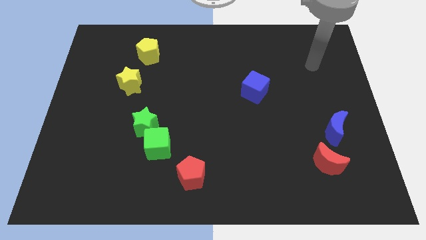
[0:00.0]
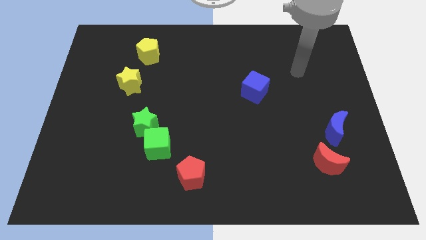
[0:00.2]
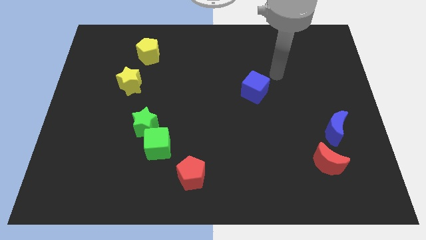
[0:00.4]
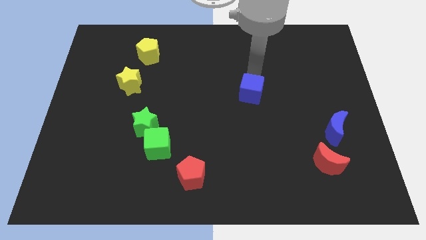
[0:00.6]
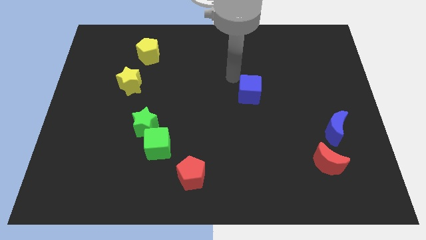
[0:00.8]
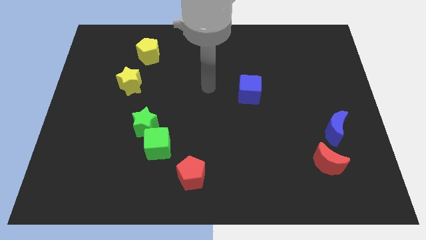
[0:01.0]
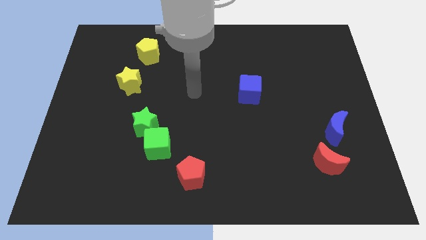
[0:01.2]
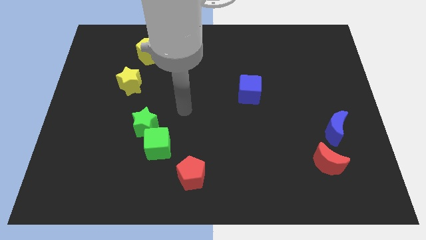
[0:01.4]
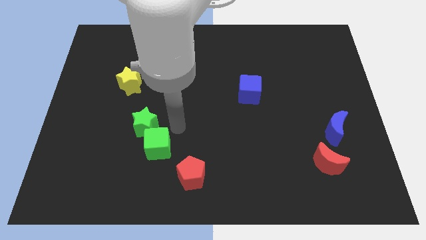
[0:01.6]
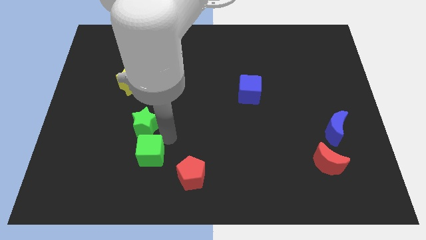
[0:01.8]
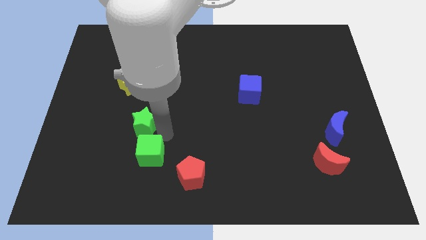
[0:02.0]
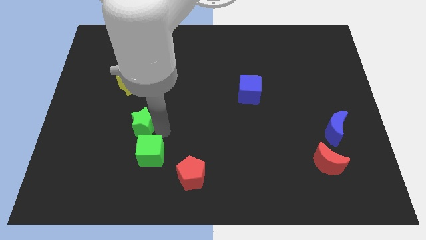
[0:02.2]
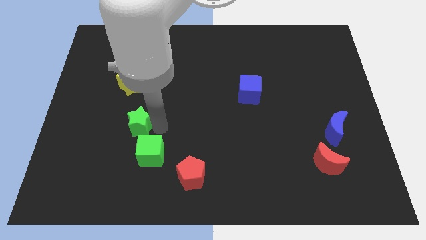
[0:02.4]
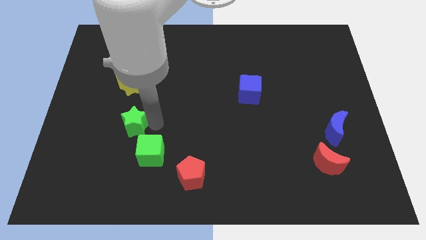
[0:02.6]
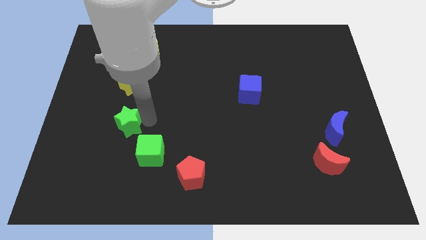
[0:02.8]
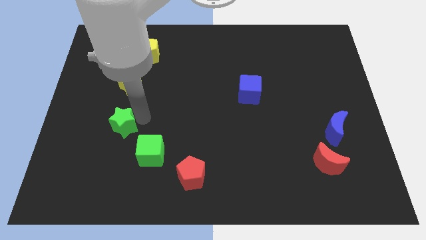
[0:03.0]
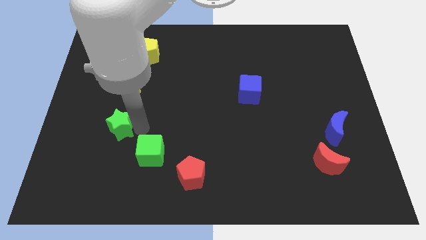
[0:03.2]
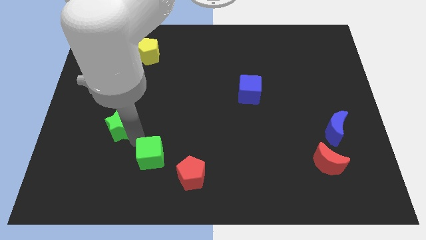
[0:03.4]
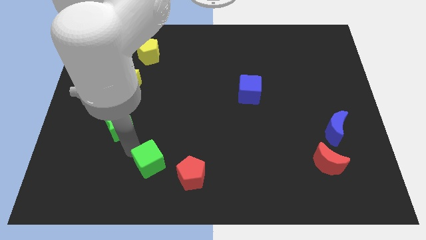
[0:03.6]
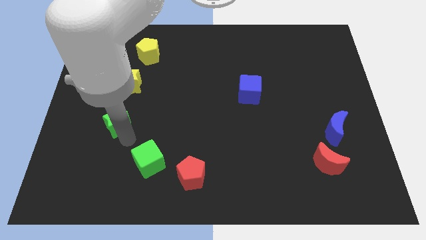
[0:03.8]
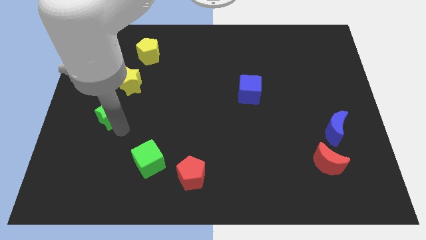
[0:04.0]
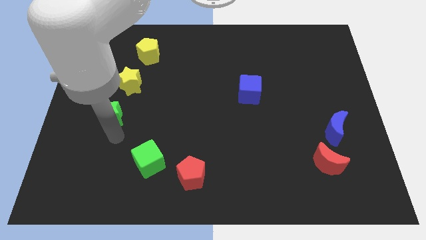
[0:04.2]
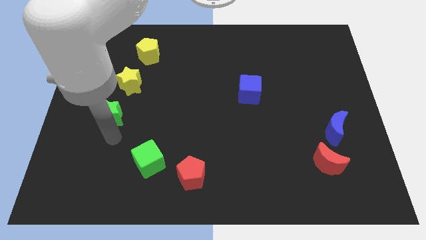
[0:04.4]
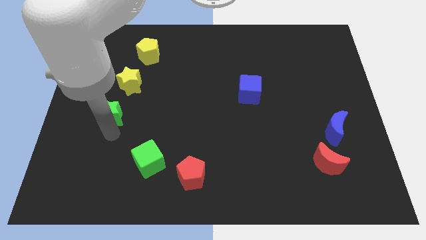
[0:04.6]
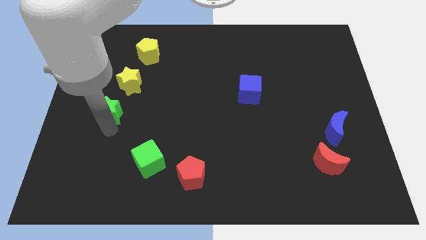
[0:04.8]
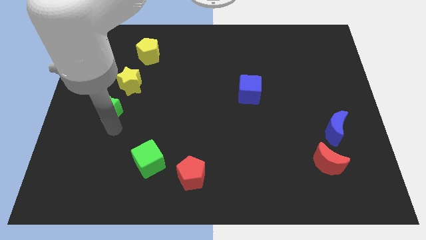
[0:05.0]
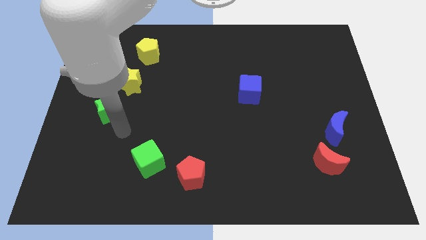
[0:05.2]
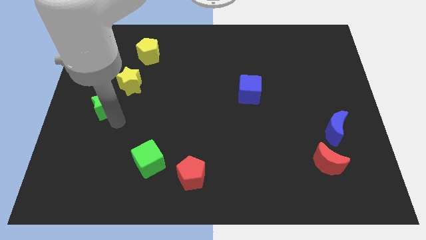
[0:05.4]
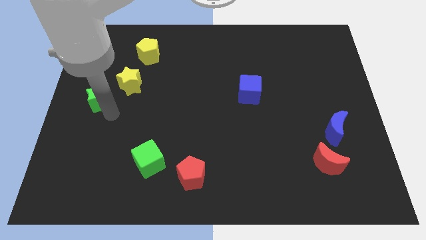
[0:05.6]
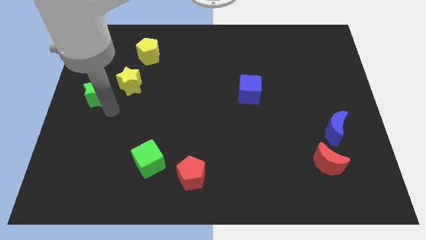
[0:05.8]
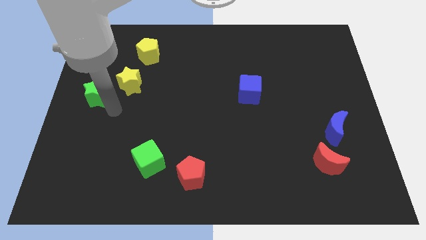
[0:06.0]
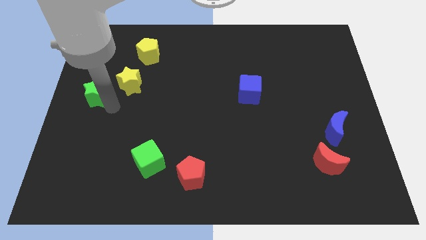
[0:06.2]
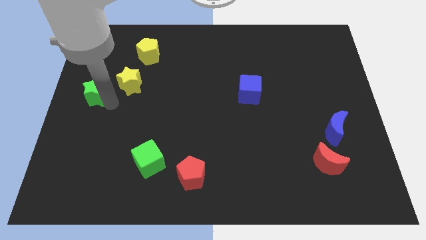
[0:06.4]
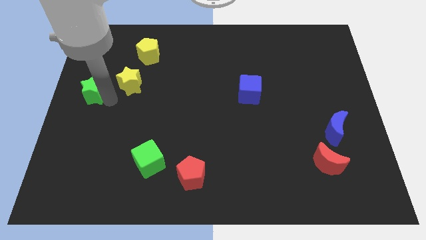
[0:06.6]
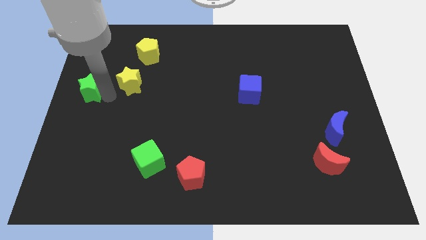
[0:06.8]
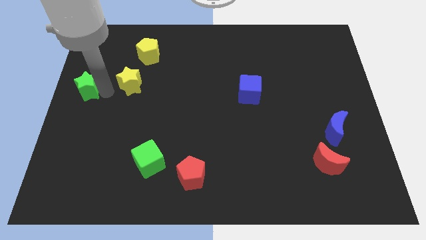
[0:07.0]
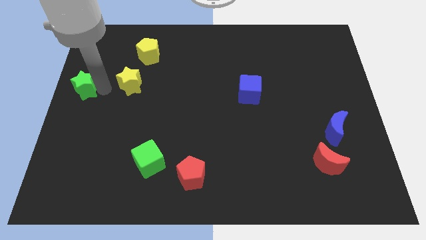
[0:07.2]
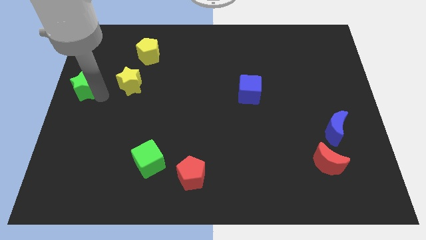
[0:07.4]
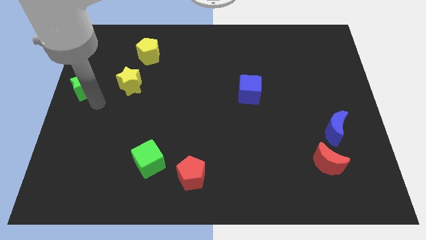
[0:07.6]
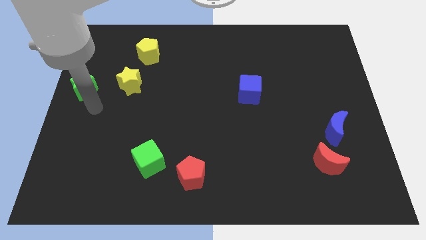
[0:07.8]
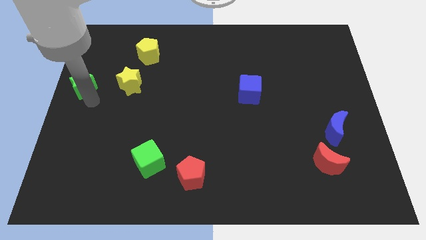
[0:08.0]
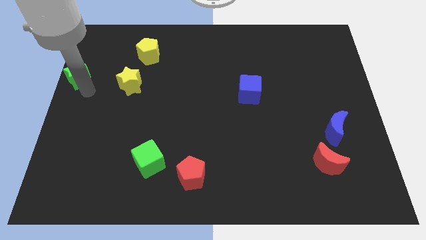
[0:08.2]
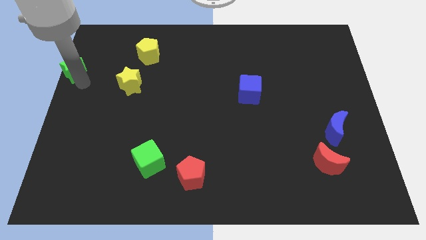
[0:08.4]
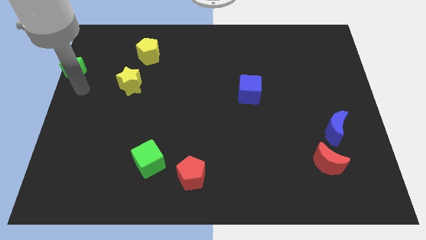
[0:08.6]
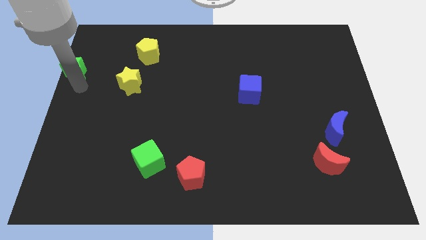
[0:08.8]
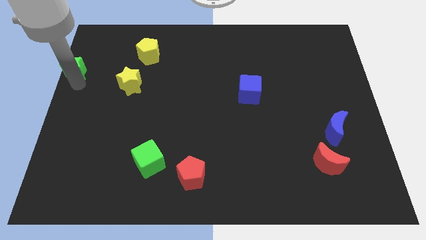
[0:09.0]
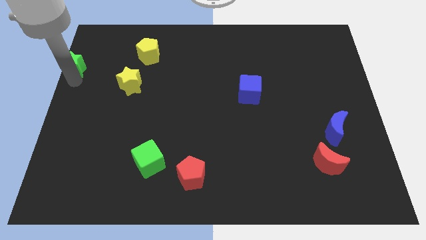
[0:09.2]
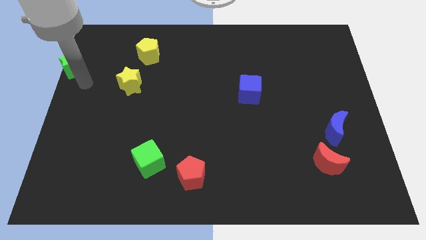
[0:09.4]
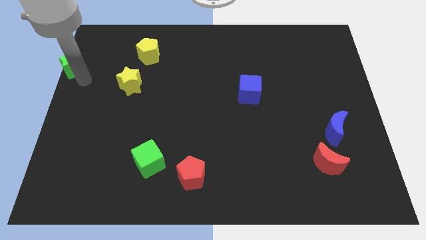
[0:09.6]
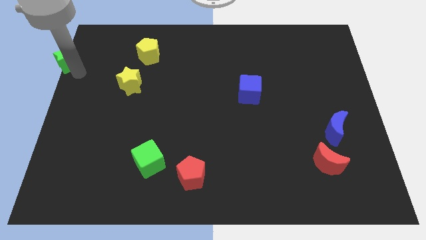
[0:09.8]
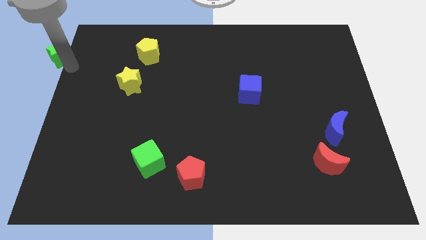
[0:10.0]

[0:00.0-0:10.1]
move the green star to the upper left corner

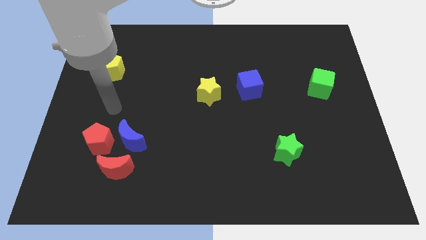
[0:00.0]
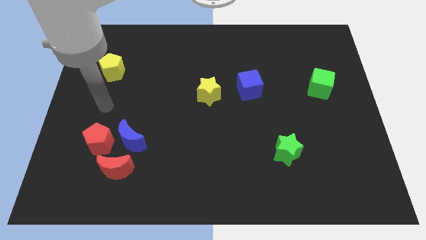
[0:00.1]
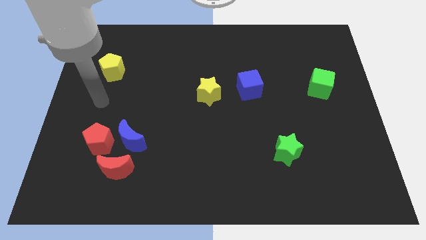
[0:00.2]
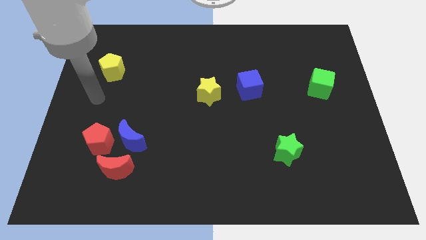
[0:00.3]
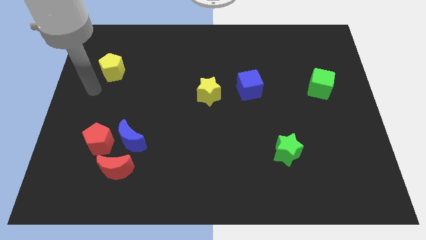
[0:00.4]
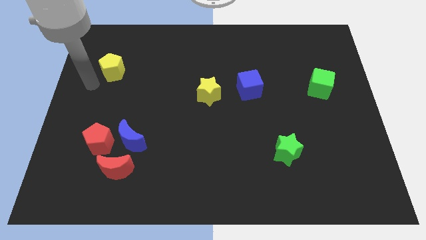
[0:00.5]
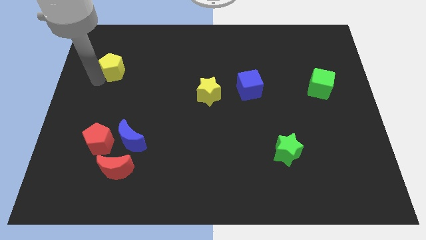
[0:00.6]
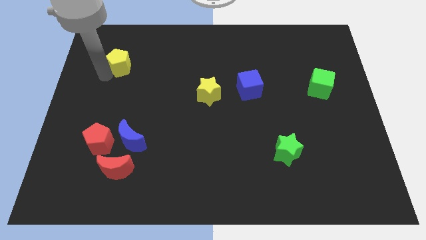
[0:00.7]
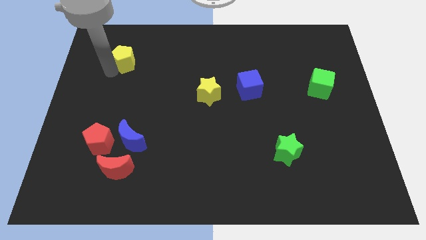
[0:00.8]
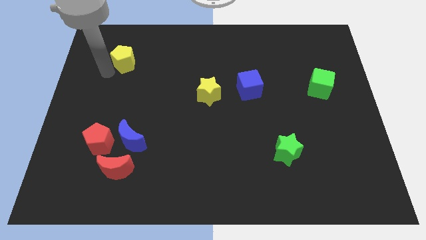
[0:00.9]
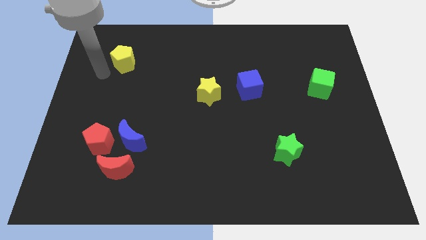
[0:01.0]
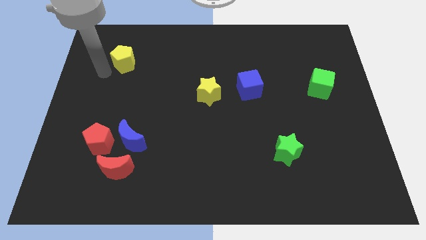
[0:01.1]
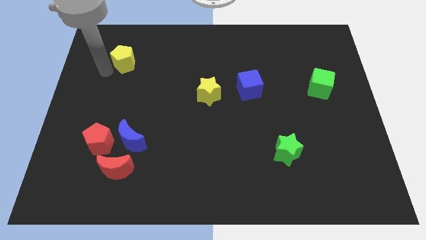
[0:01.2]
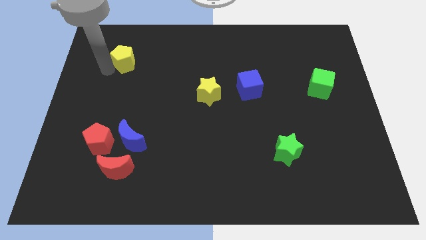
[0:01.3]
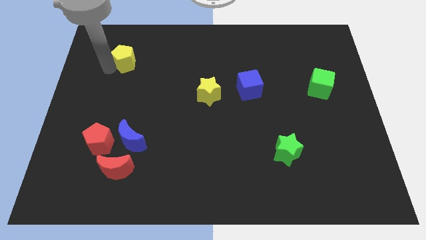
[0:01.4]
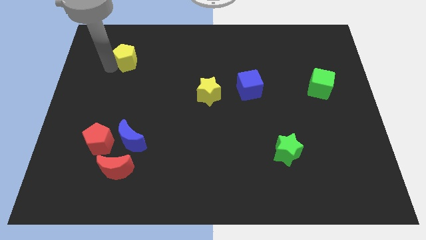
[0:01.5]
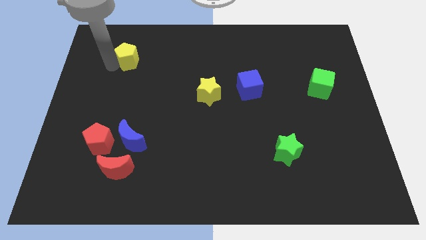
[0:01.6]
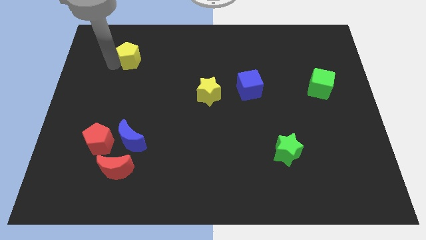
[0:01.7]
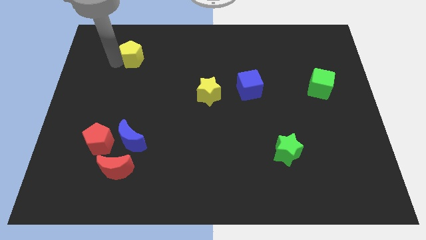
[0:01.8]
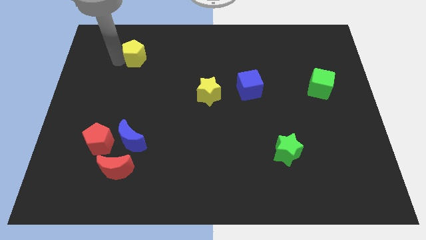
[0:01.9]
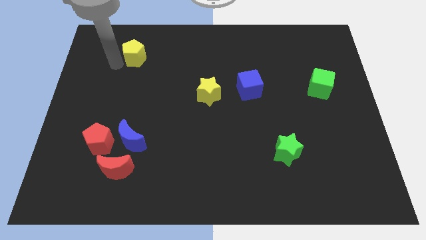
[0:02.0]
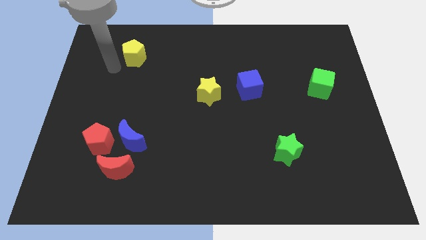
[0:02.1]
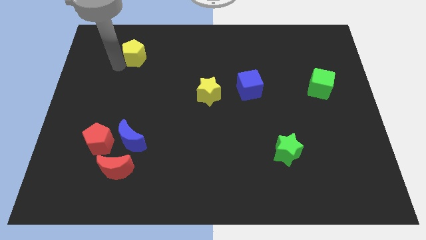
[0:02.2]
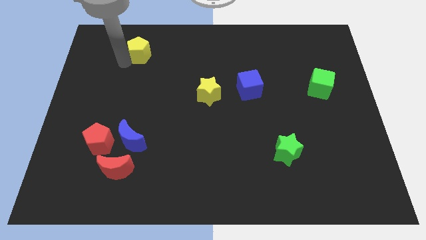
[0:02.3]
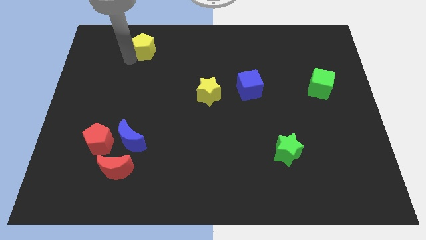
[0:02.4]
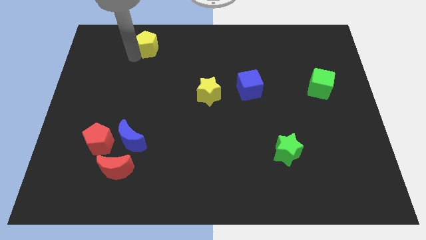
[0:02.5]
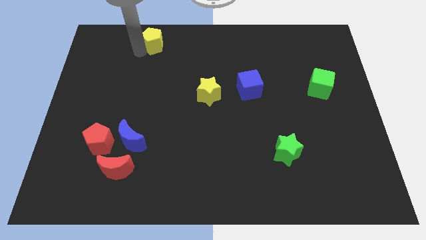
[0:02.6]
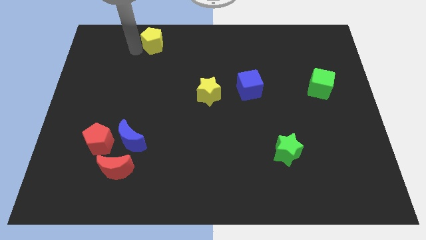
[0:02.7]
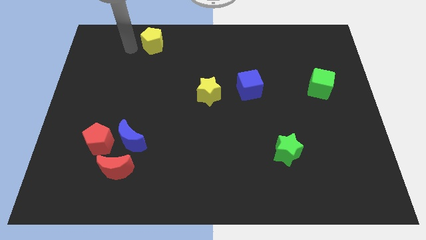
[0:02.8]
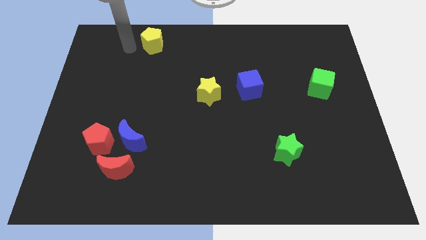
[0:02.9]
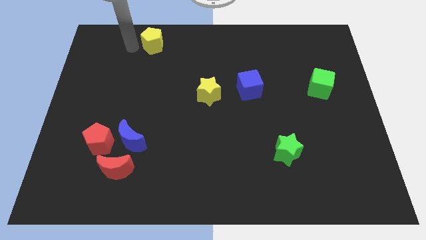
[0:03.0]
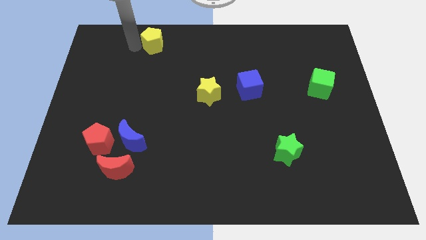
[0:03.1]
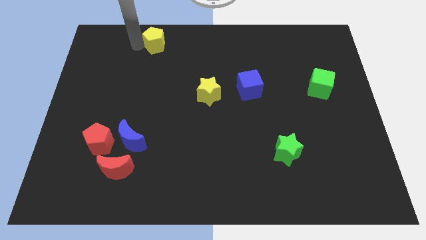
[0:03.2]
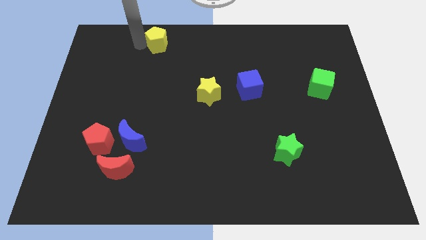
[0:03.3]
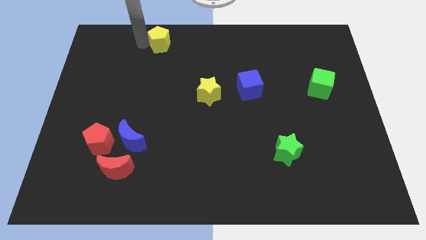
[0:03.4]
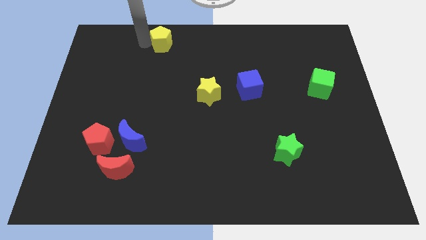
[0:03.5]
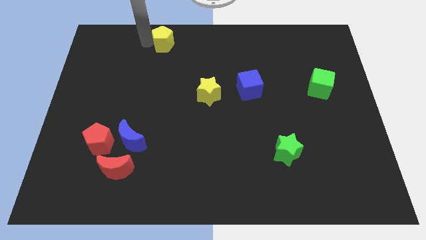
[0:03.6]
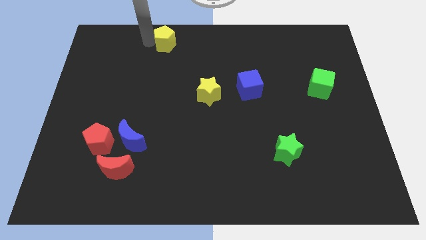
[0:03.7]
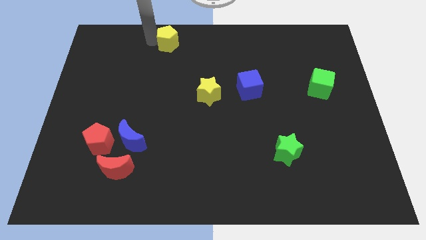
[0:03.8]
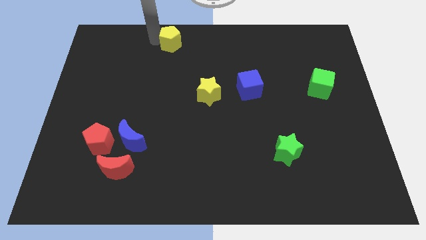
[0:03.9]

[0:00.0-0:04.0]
slide the yellow pentagon to the top
